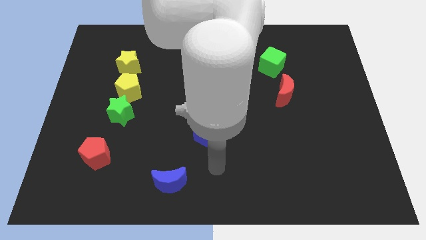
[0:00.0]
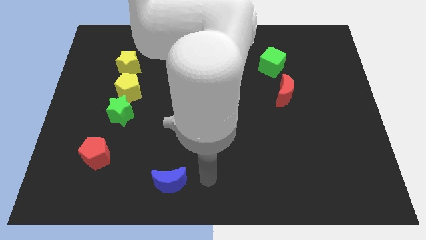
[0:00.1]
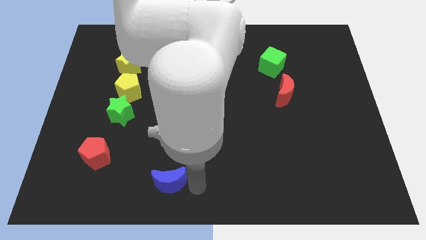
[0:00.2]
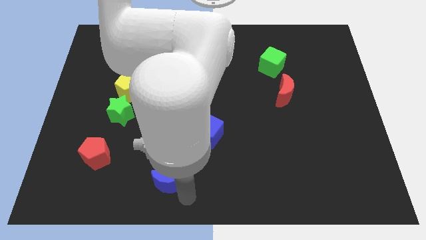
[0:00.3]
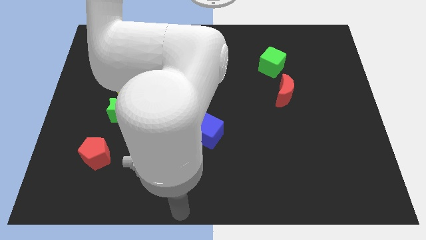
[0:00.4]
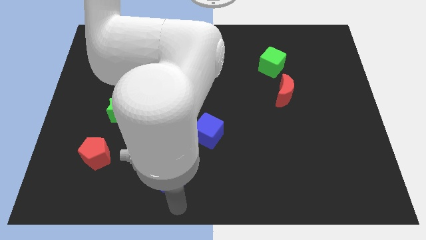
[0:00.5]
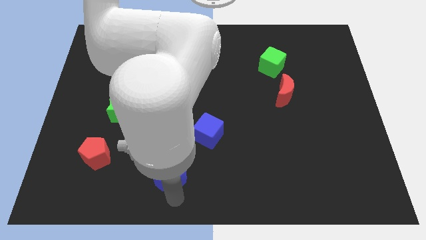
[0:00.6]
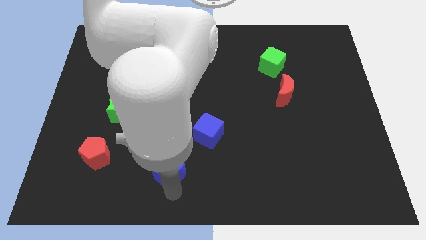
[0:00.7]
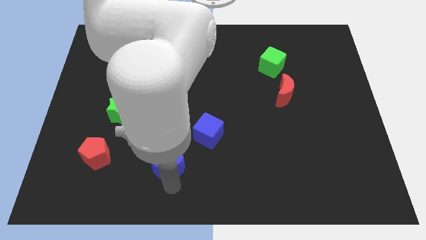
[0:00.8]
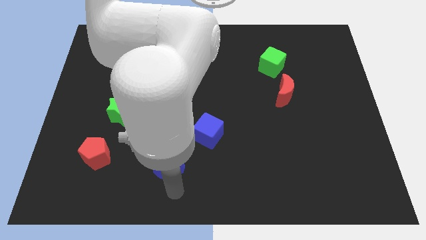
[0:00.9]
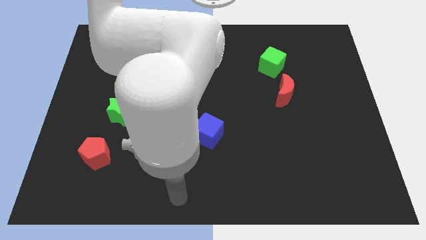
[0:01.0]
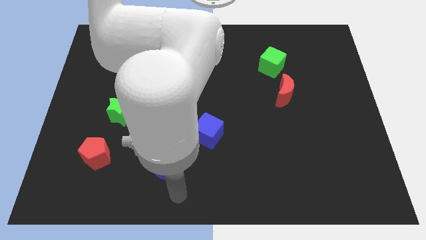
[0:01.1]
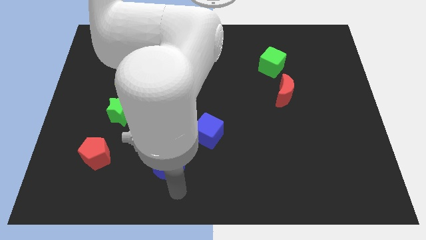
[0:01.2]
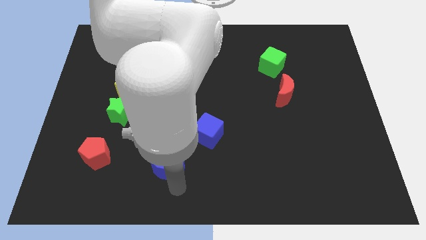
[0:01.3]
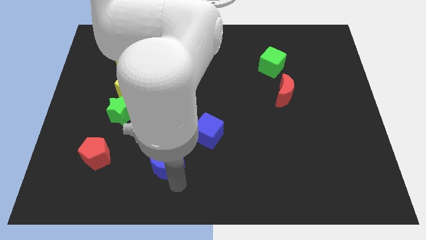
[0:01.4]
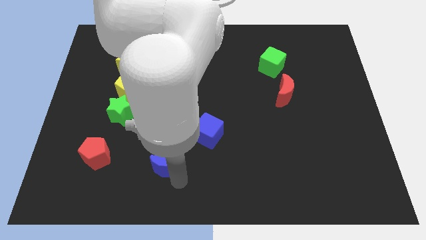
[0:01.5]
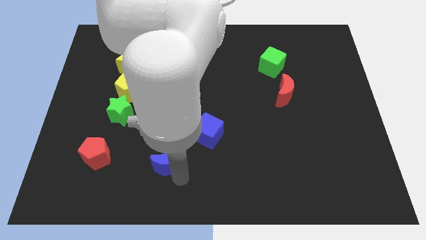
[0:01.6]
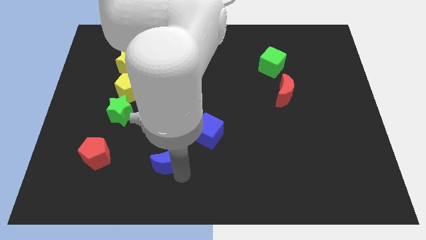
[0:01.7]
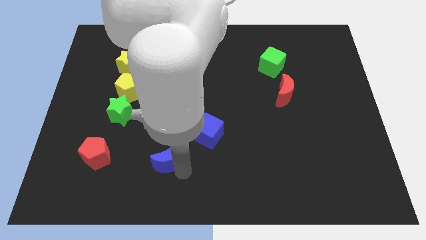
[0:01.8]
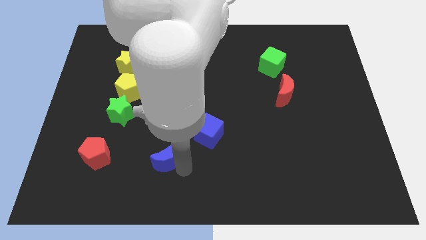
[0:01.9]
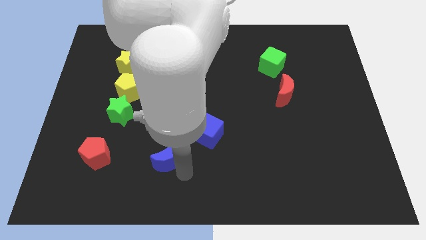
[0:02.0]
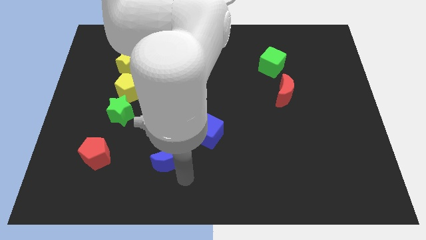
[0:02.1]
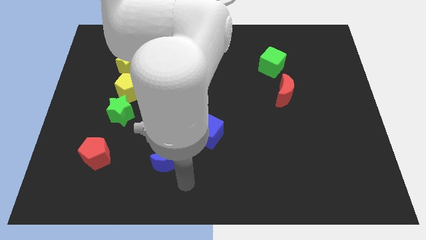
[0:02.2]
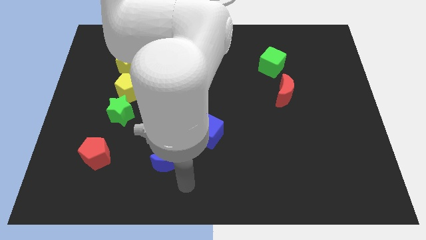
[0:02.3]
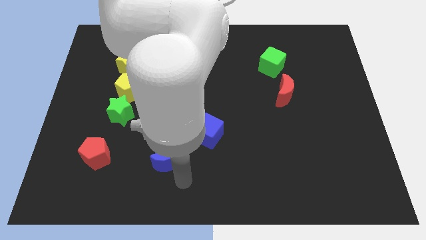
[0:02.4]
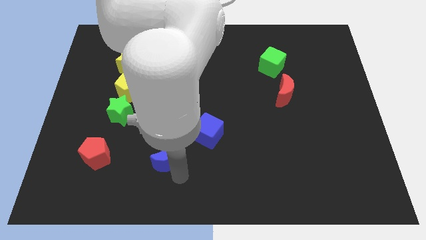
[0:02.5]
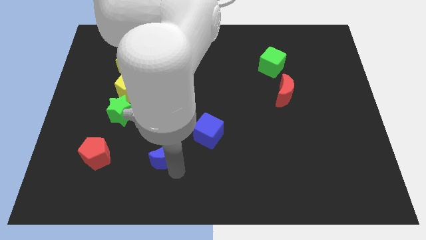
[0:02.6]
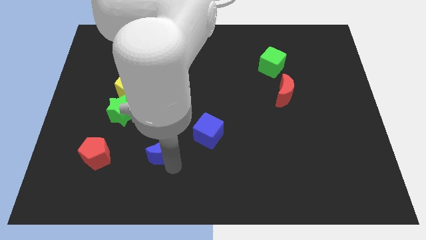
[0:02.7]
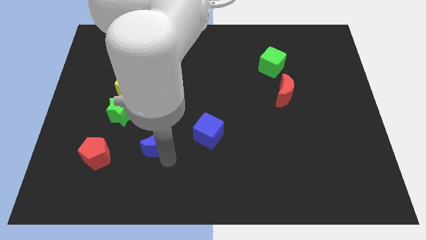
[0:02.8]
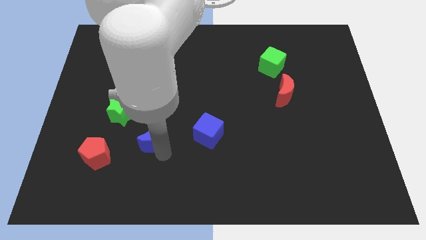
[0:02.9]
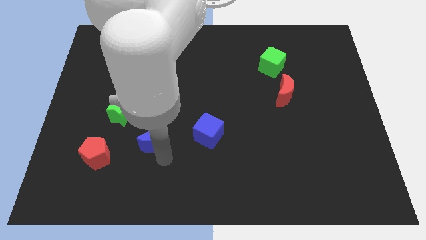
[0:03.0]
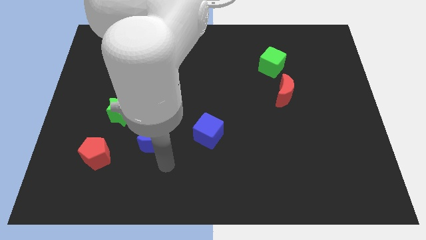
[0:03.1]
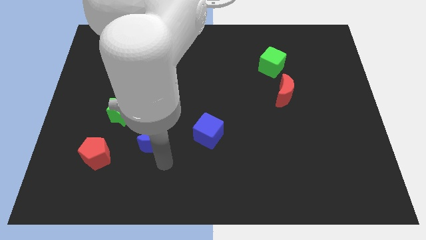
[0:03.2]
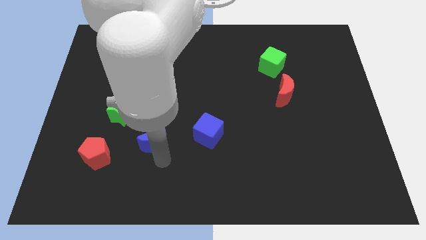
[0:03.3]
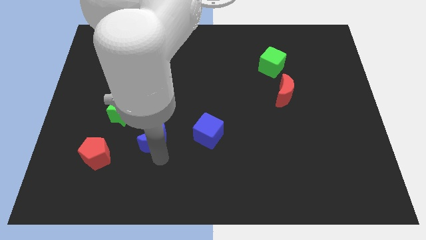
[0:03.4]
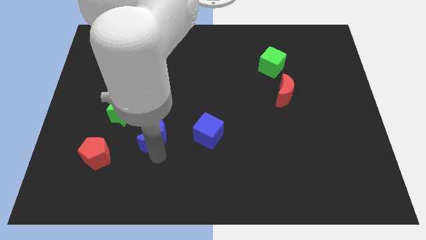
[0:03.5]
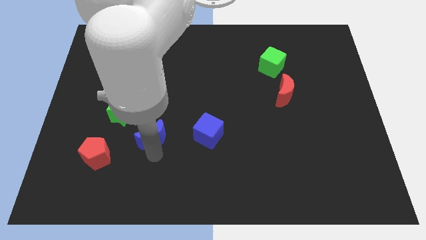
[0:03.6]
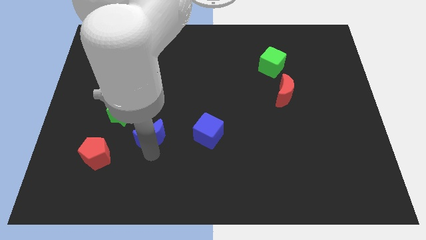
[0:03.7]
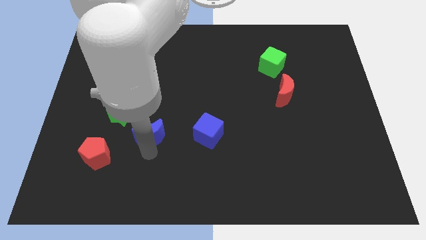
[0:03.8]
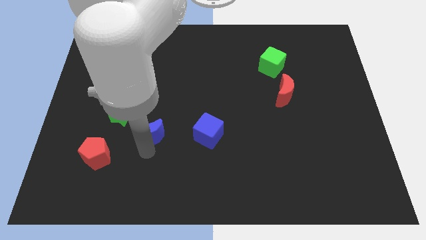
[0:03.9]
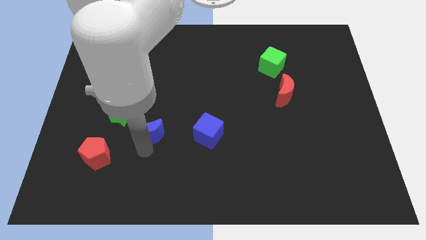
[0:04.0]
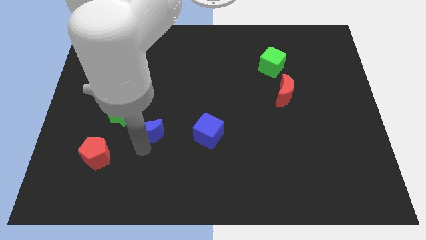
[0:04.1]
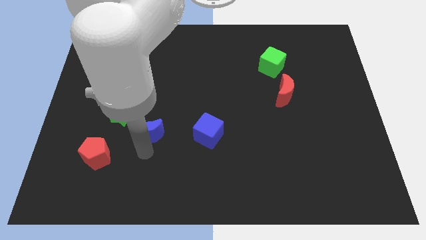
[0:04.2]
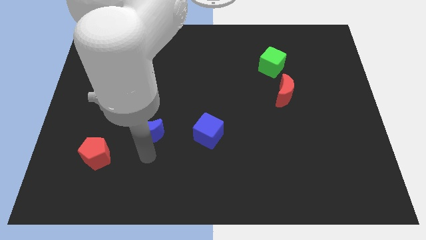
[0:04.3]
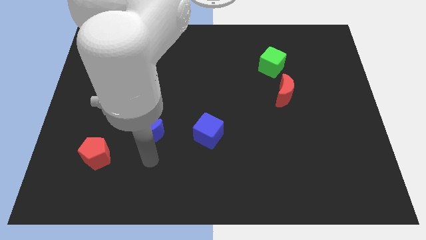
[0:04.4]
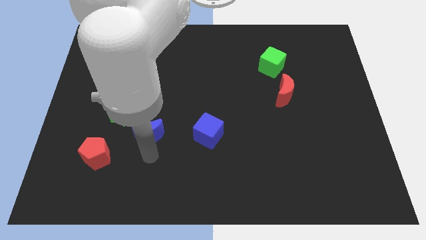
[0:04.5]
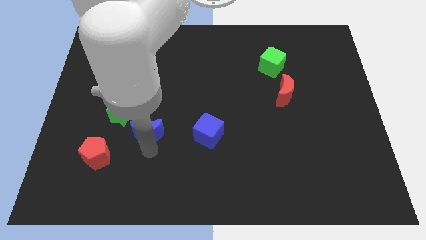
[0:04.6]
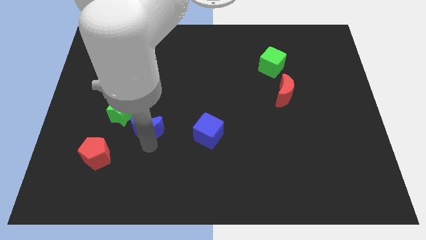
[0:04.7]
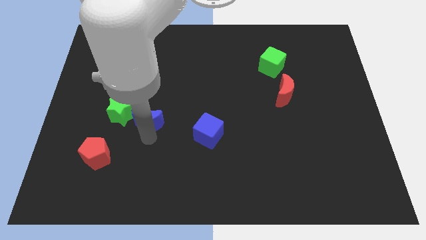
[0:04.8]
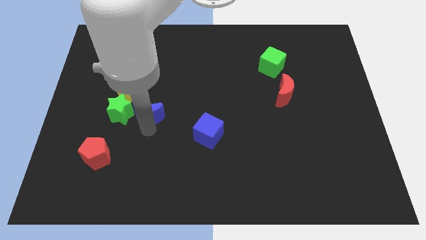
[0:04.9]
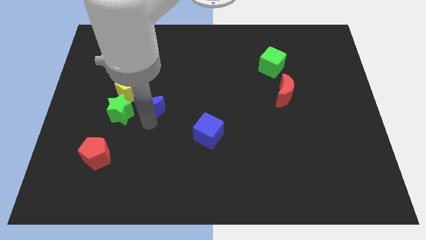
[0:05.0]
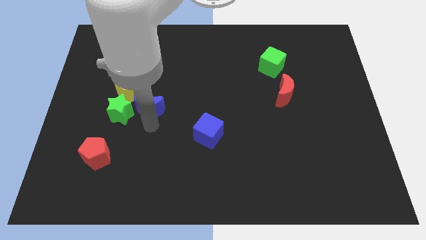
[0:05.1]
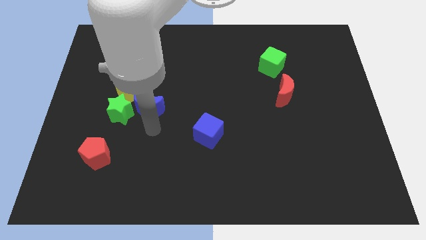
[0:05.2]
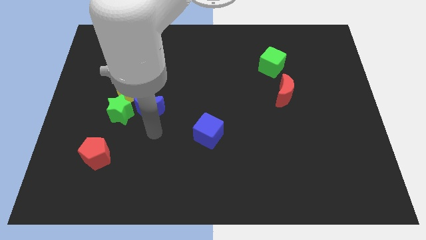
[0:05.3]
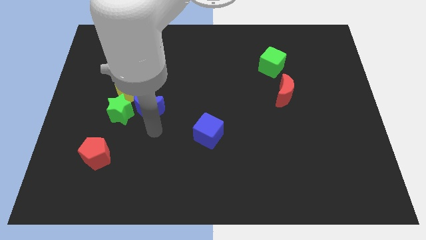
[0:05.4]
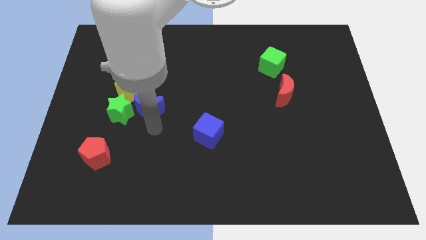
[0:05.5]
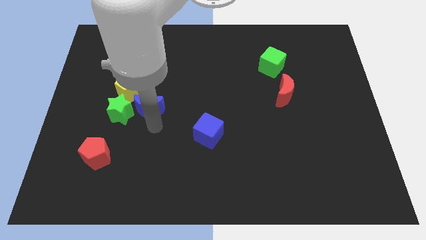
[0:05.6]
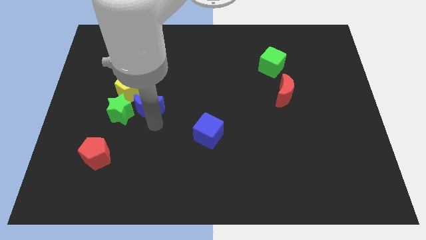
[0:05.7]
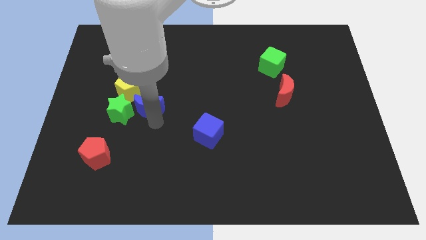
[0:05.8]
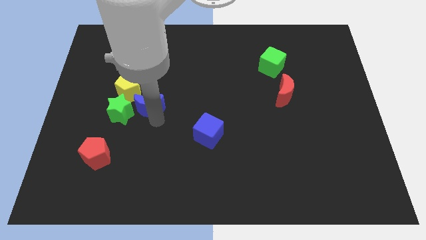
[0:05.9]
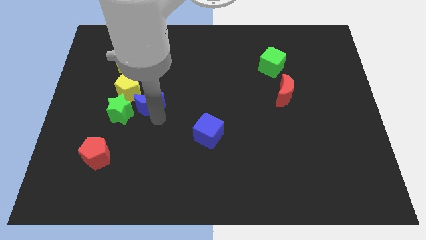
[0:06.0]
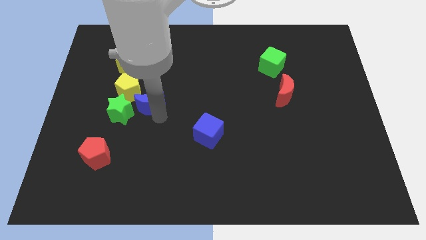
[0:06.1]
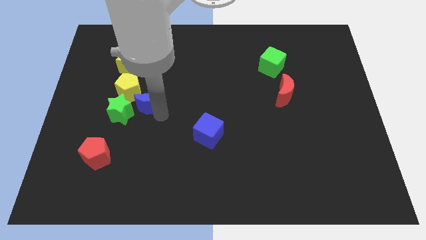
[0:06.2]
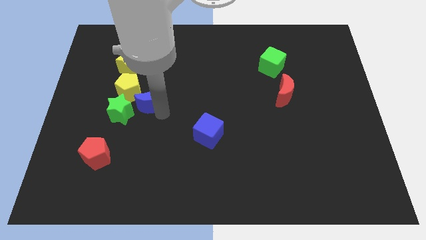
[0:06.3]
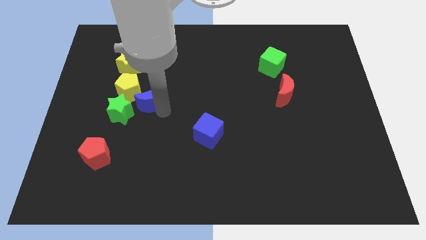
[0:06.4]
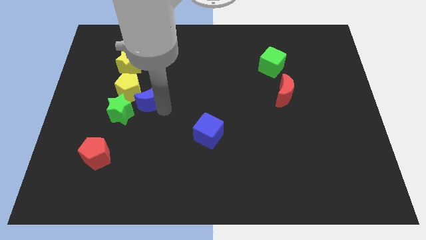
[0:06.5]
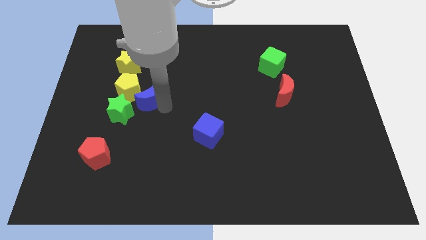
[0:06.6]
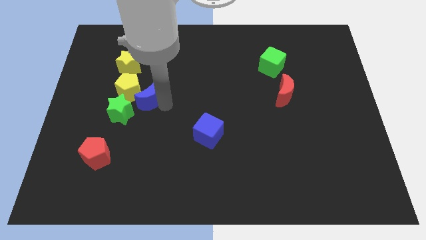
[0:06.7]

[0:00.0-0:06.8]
put the blue moon to the yellow pentagon

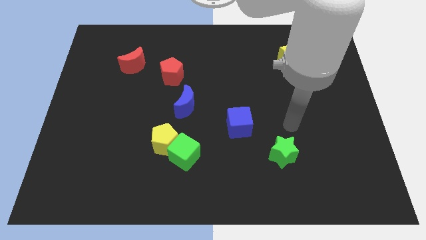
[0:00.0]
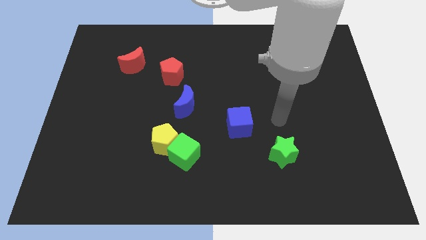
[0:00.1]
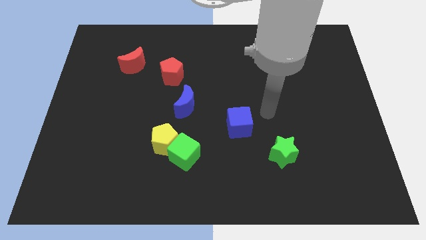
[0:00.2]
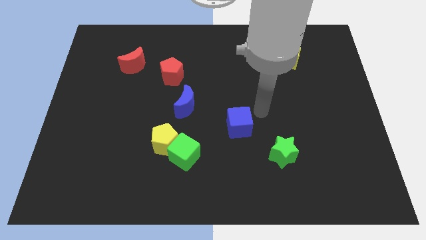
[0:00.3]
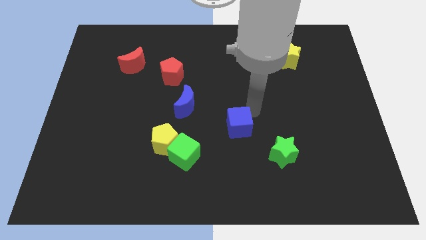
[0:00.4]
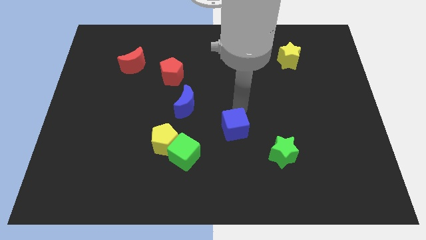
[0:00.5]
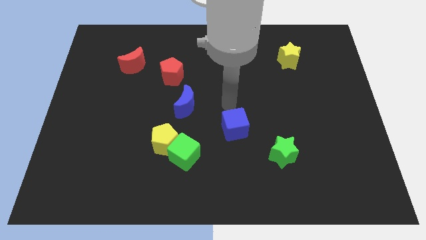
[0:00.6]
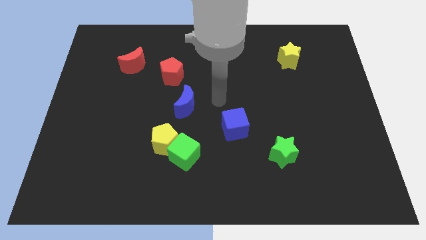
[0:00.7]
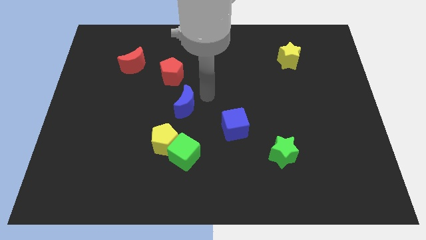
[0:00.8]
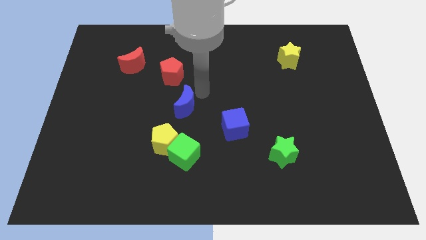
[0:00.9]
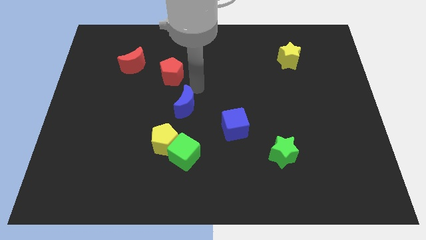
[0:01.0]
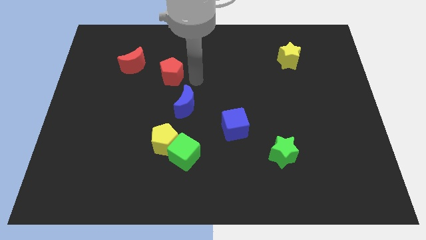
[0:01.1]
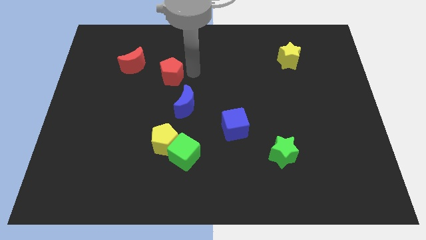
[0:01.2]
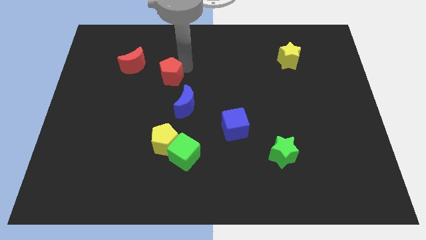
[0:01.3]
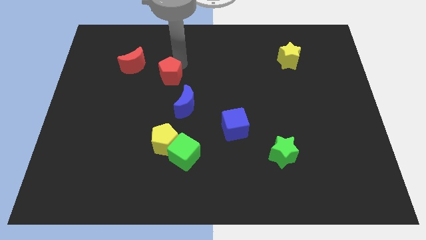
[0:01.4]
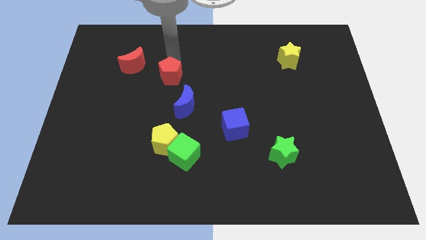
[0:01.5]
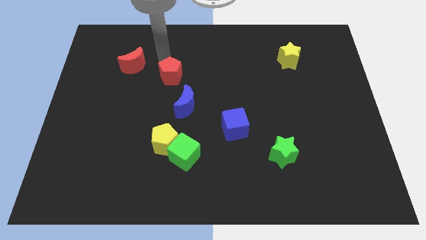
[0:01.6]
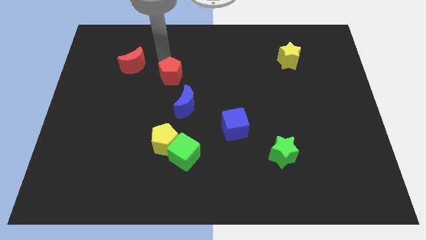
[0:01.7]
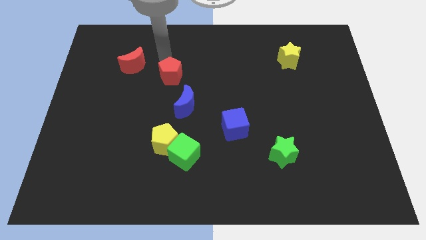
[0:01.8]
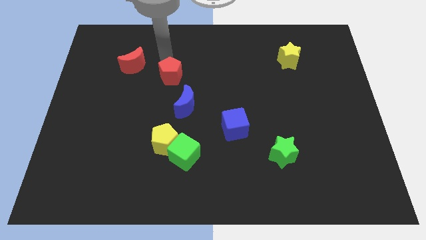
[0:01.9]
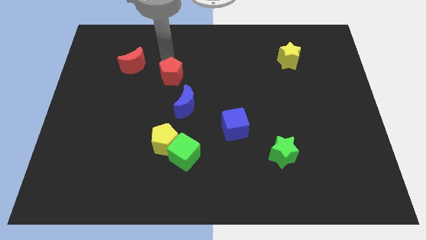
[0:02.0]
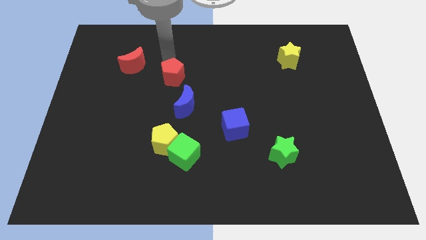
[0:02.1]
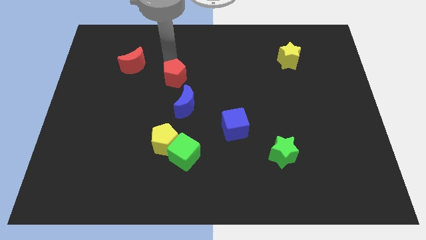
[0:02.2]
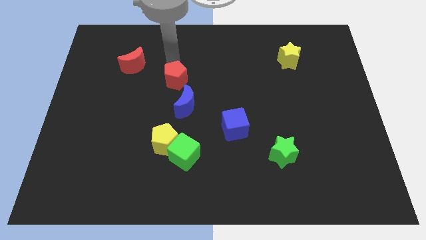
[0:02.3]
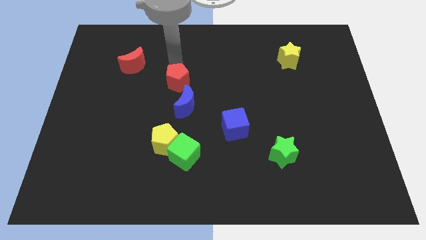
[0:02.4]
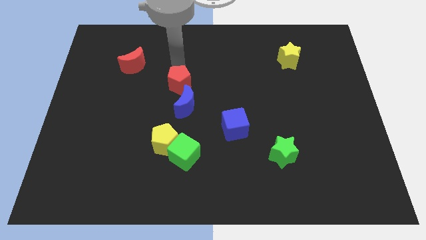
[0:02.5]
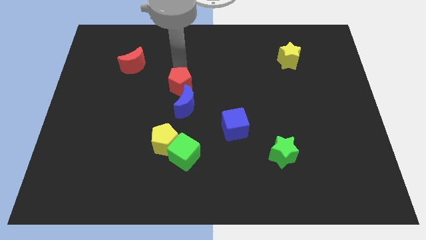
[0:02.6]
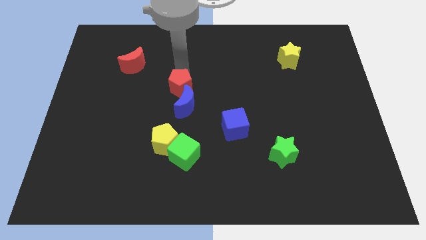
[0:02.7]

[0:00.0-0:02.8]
put the red pentagon towards the blue moon
